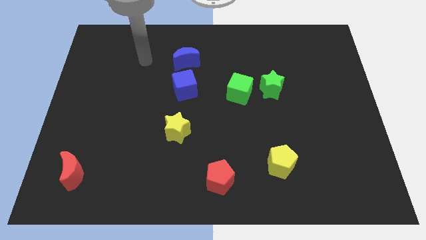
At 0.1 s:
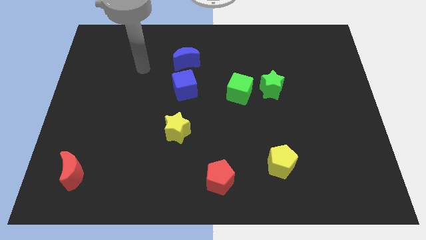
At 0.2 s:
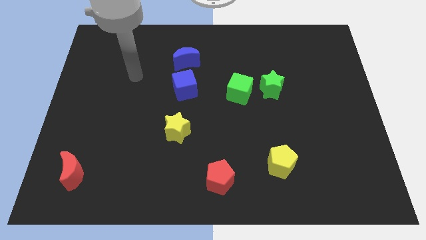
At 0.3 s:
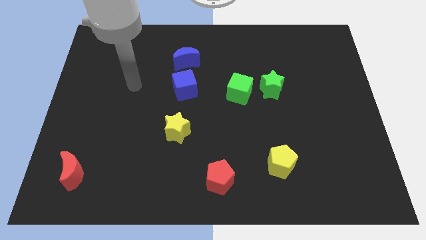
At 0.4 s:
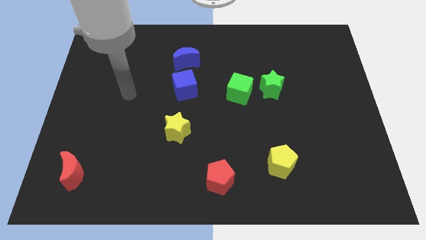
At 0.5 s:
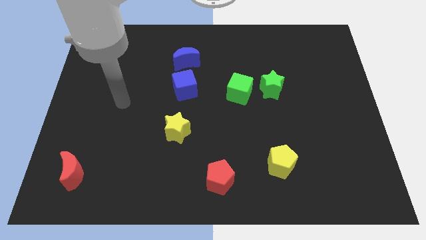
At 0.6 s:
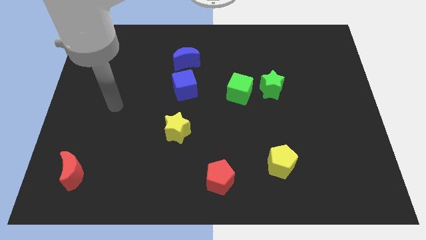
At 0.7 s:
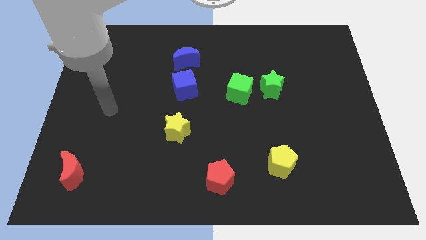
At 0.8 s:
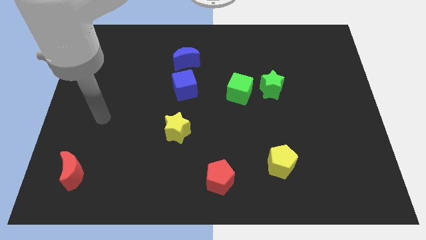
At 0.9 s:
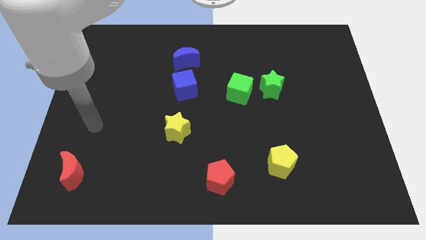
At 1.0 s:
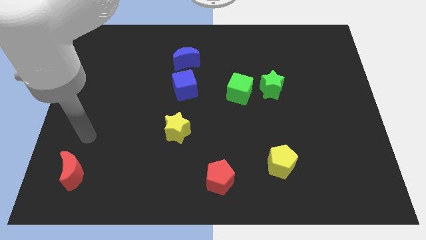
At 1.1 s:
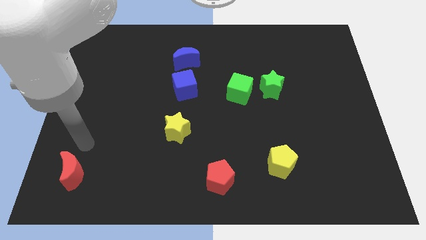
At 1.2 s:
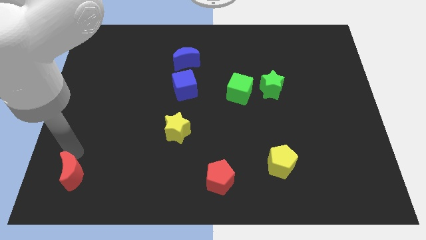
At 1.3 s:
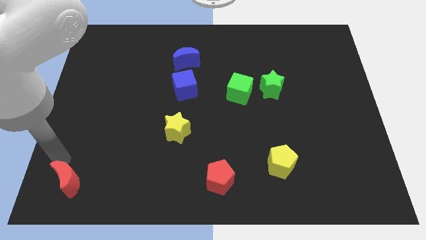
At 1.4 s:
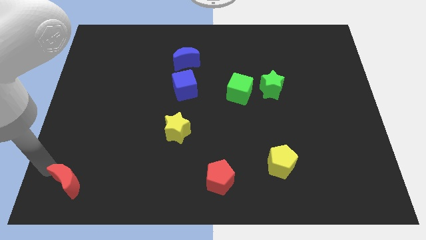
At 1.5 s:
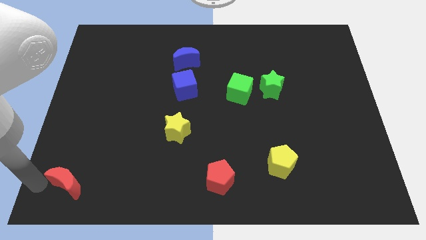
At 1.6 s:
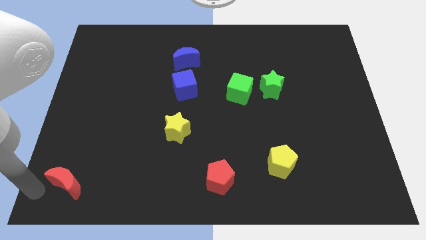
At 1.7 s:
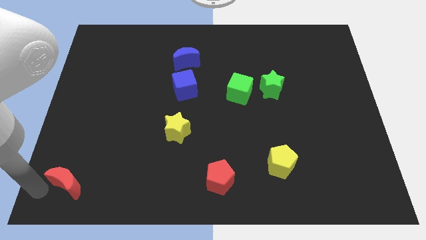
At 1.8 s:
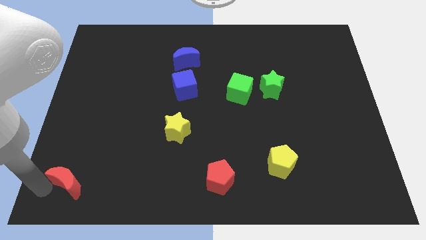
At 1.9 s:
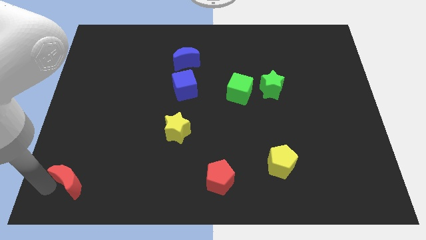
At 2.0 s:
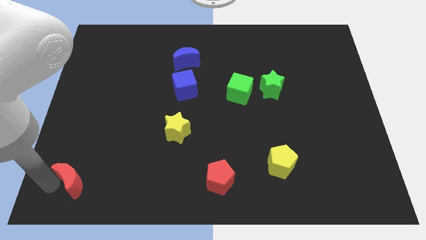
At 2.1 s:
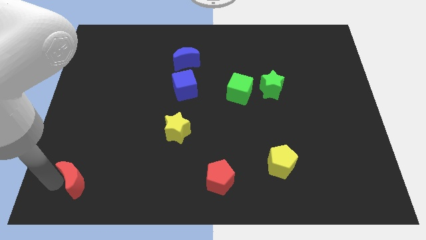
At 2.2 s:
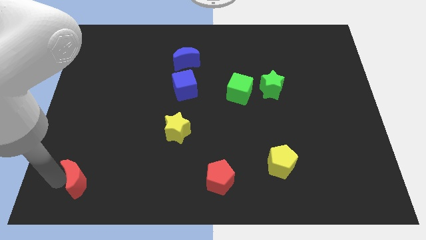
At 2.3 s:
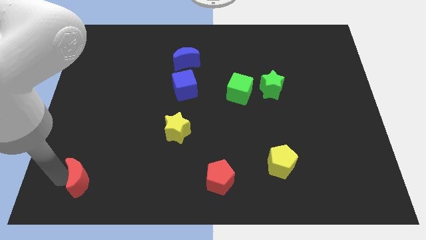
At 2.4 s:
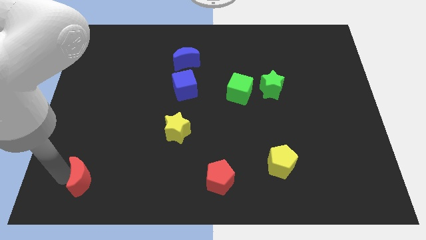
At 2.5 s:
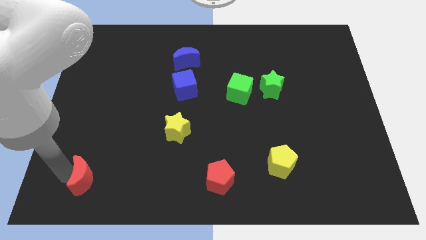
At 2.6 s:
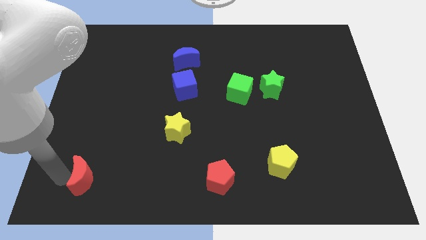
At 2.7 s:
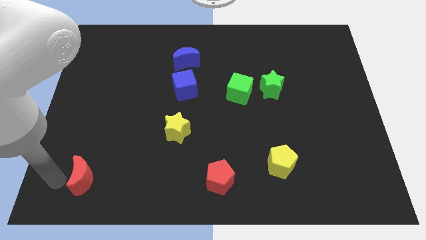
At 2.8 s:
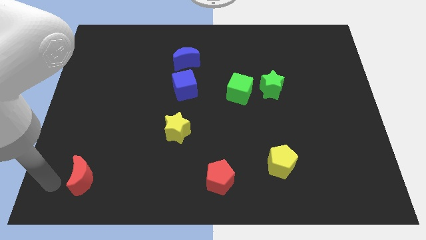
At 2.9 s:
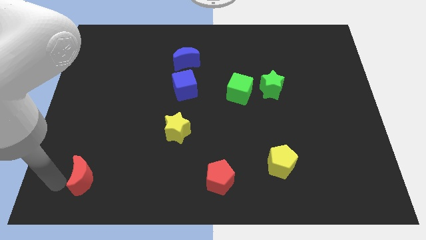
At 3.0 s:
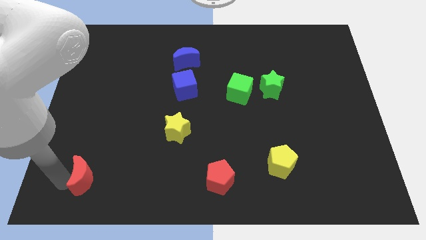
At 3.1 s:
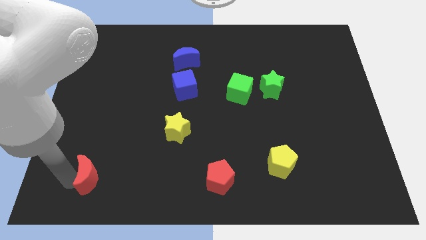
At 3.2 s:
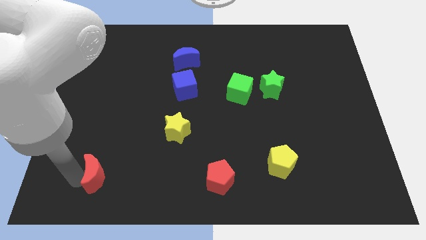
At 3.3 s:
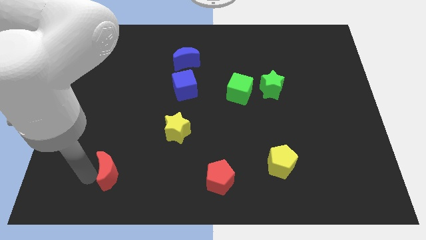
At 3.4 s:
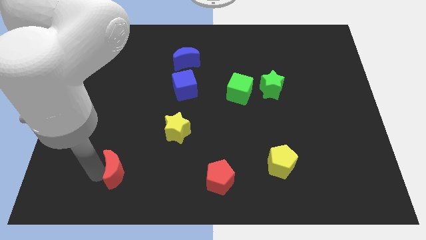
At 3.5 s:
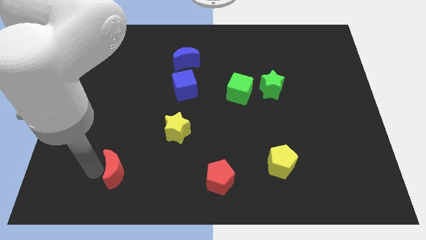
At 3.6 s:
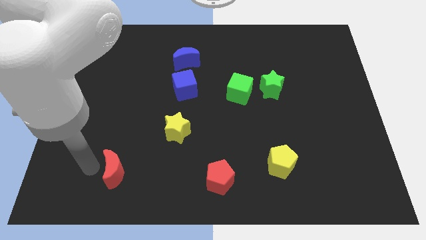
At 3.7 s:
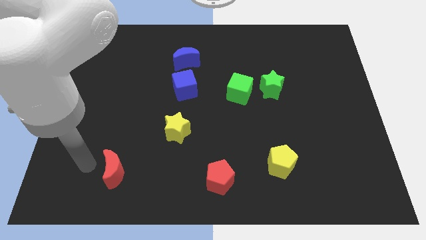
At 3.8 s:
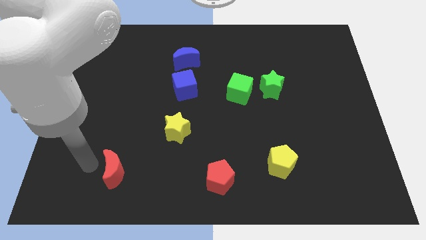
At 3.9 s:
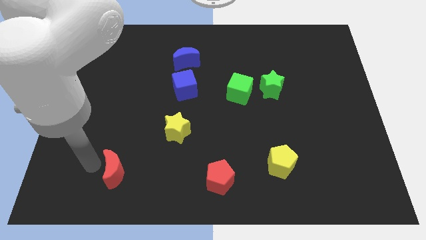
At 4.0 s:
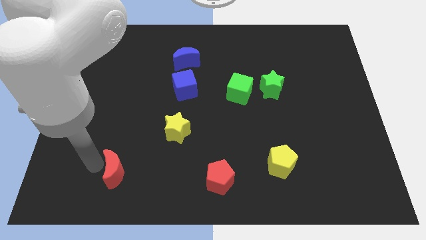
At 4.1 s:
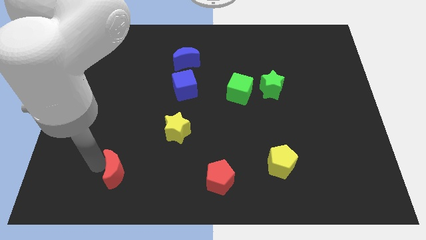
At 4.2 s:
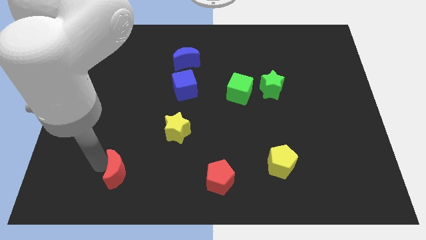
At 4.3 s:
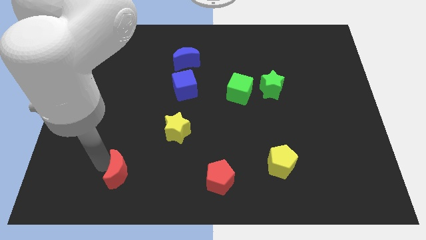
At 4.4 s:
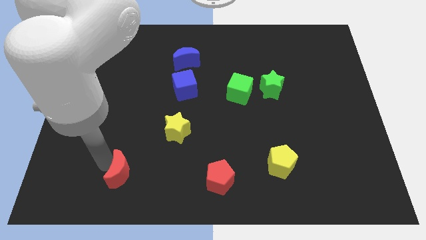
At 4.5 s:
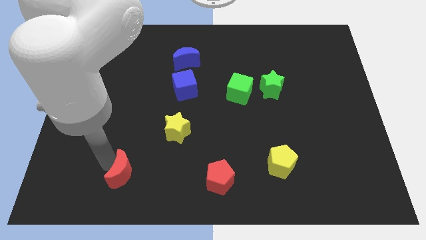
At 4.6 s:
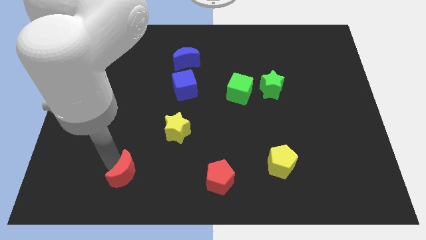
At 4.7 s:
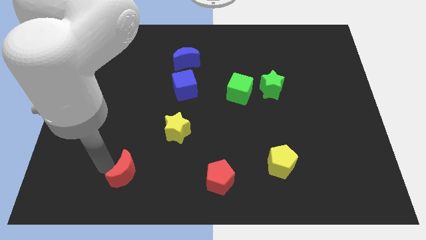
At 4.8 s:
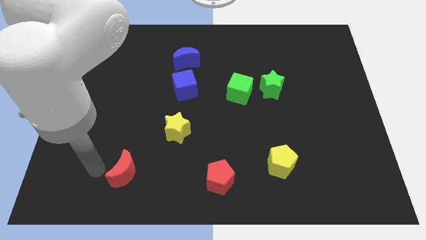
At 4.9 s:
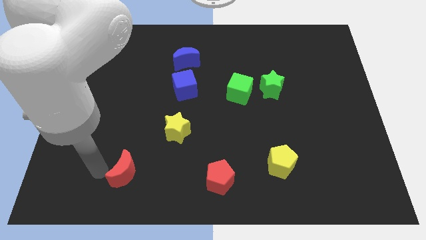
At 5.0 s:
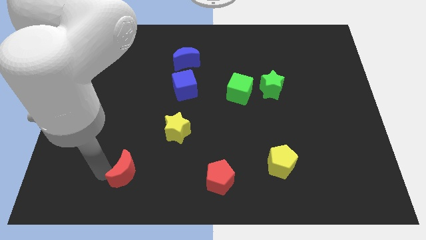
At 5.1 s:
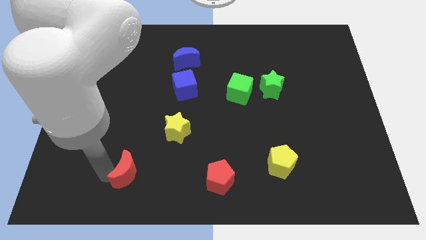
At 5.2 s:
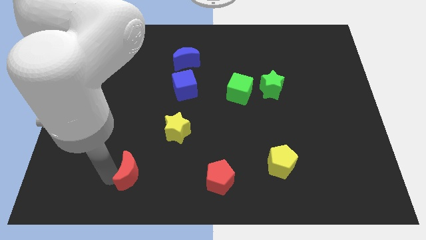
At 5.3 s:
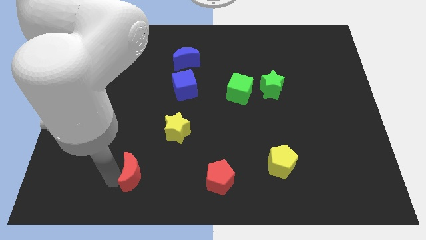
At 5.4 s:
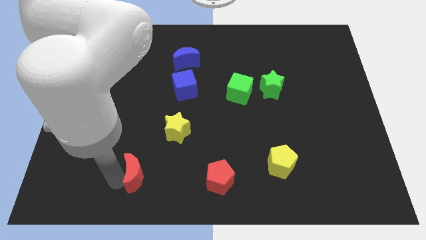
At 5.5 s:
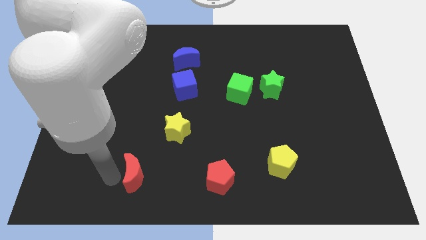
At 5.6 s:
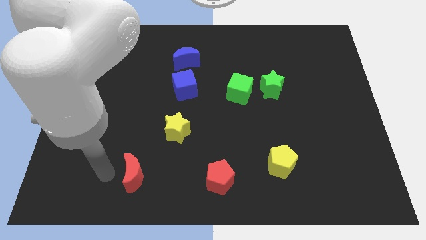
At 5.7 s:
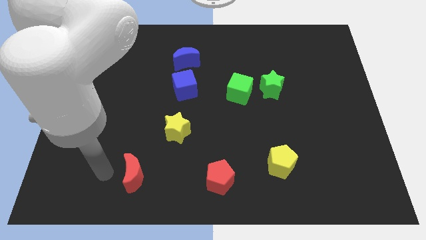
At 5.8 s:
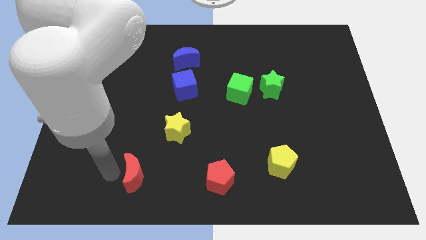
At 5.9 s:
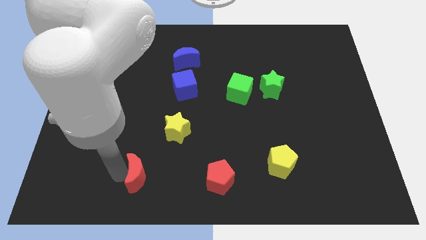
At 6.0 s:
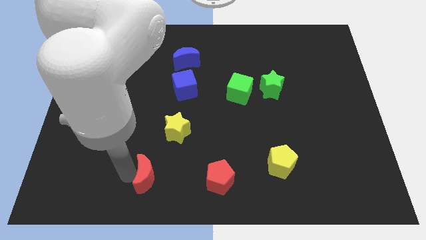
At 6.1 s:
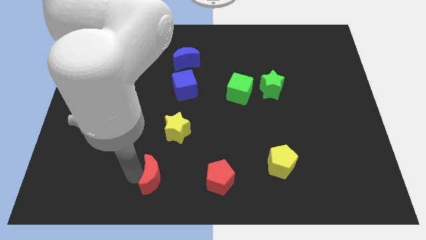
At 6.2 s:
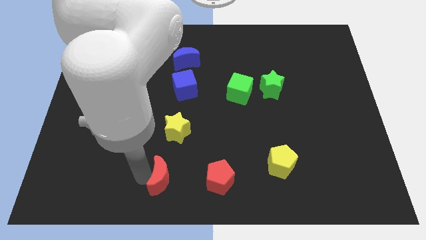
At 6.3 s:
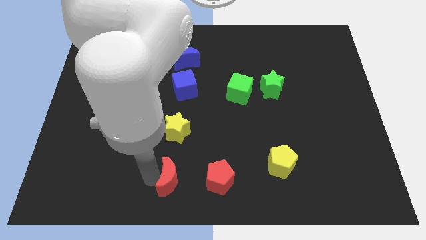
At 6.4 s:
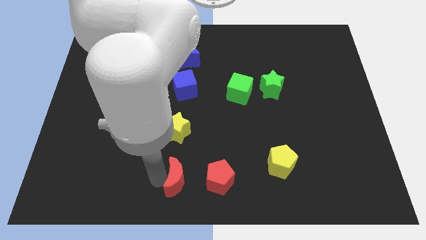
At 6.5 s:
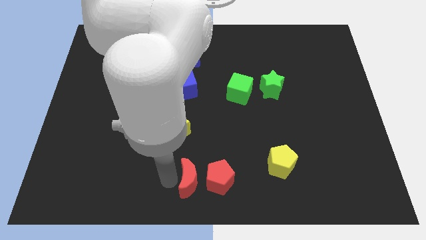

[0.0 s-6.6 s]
push the red moon to the red pentagon
